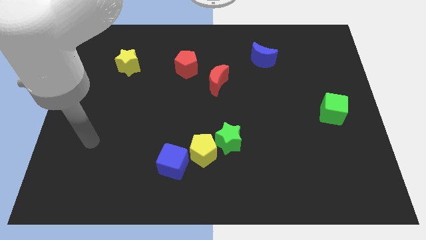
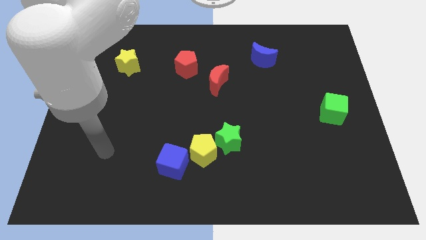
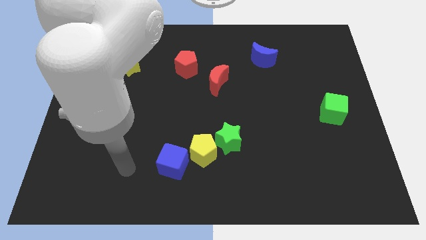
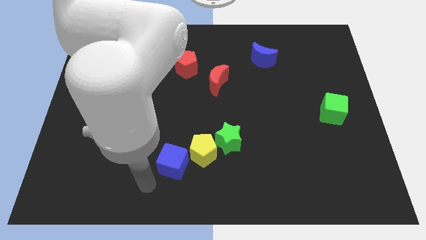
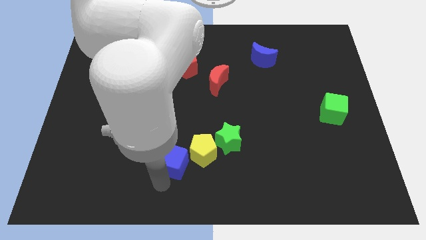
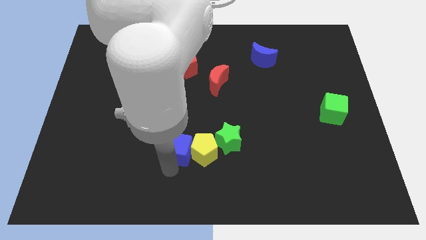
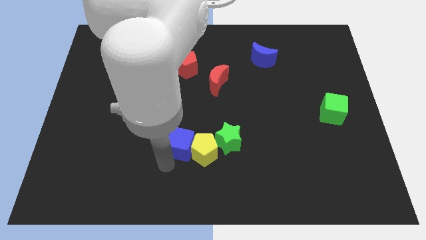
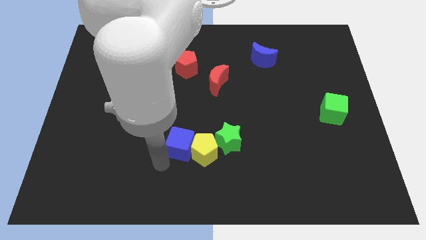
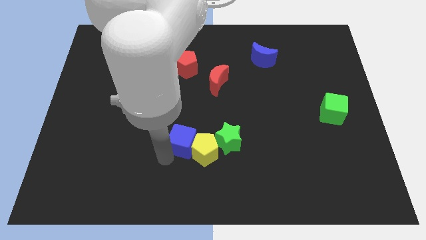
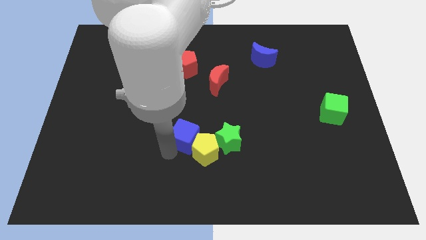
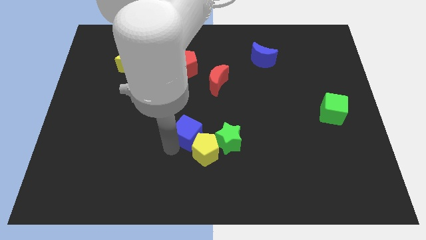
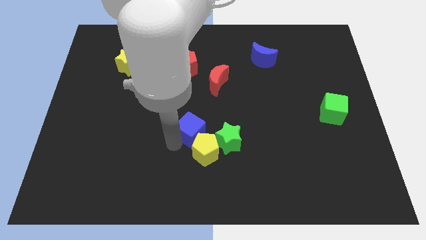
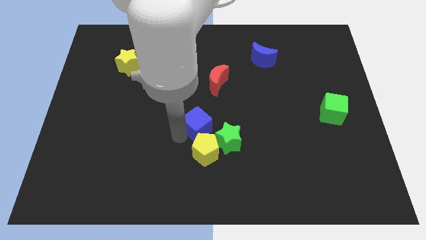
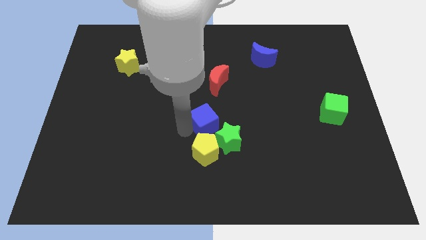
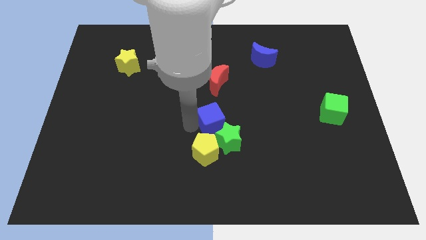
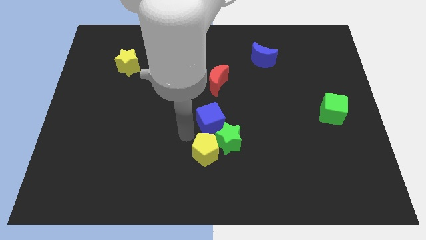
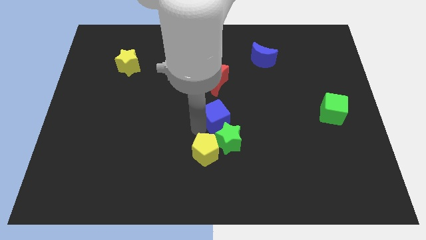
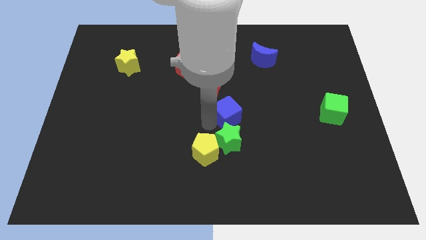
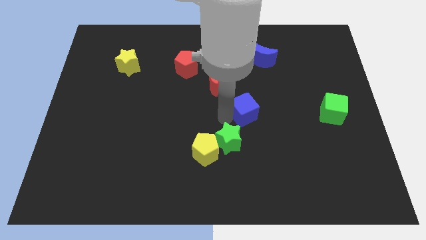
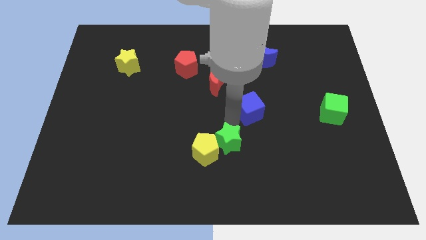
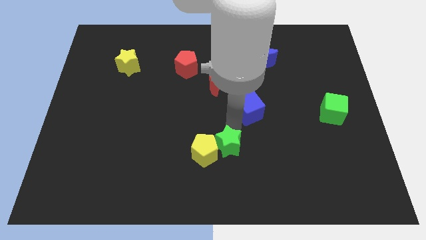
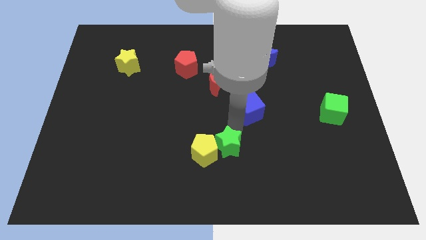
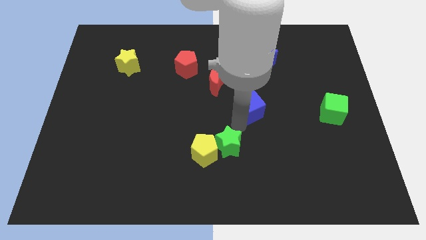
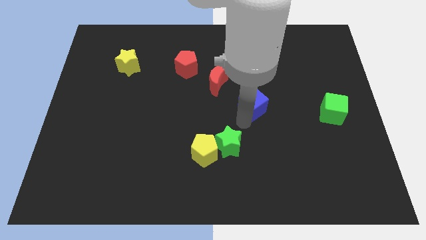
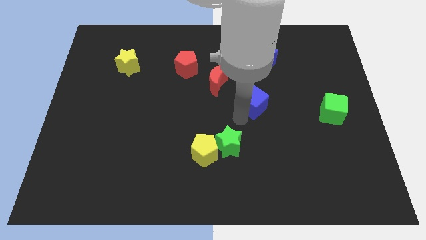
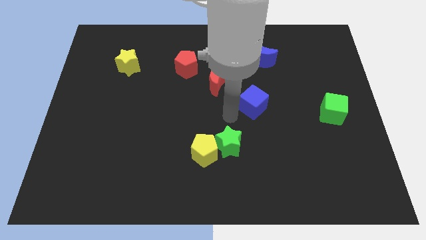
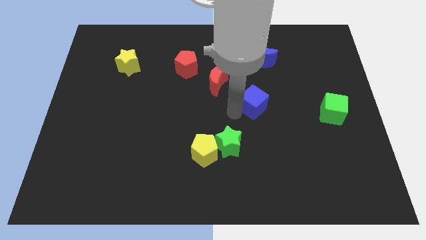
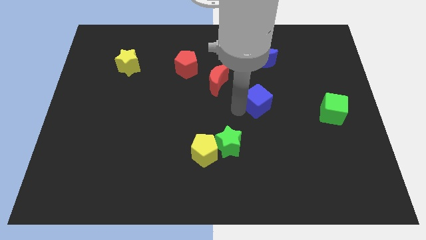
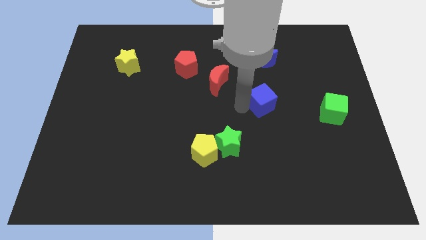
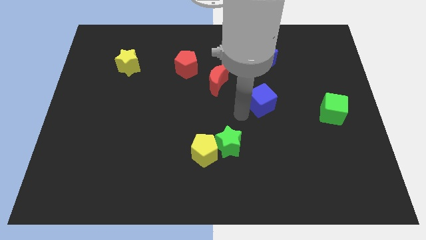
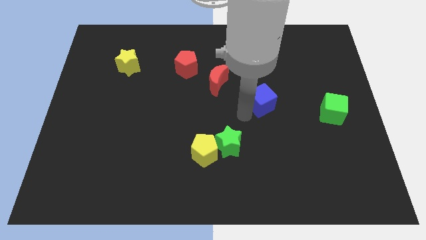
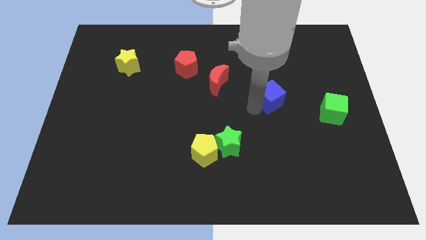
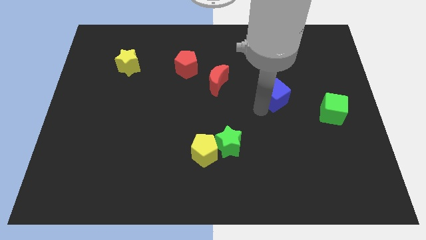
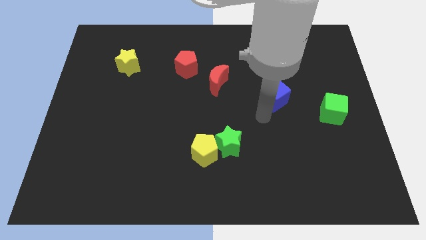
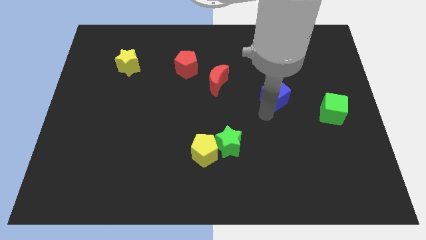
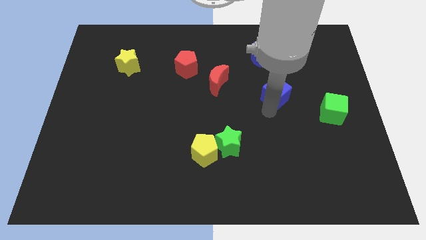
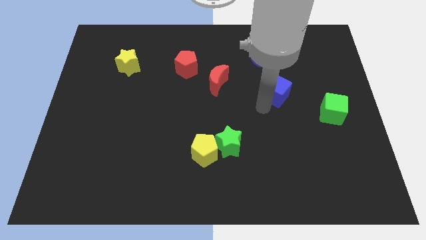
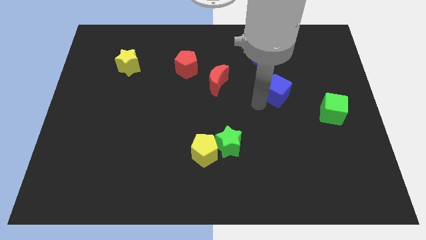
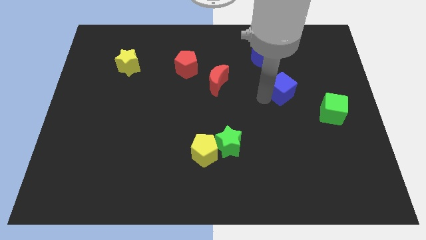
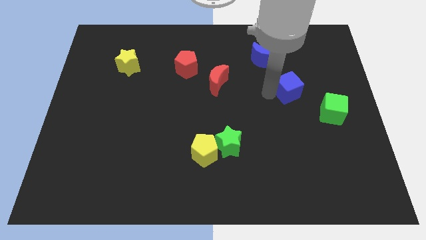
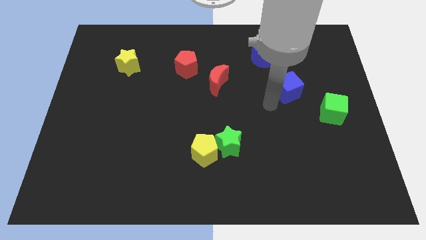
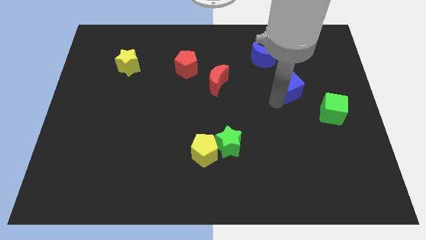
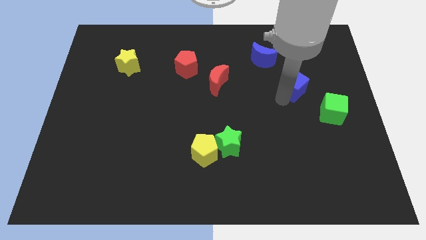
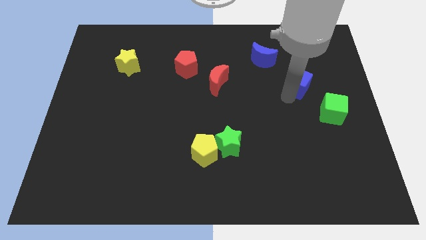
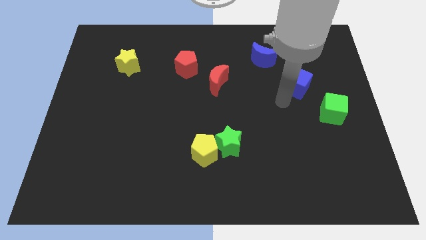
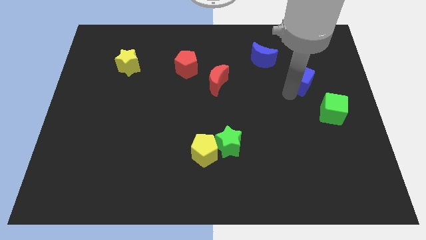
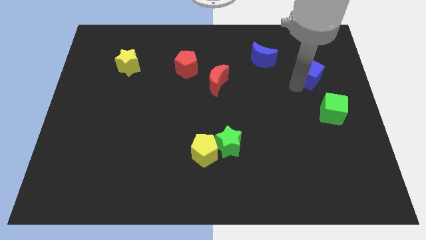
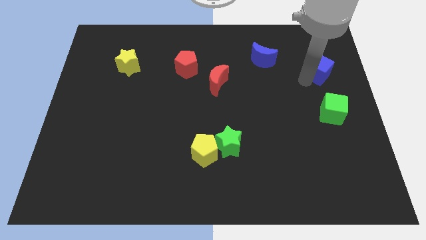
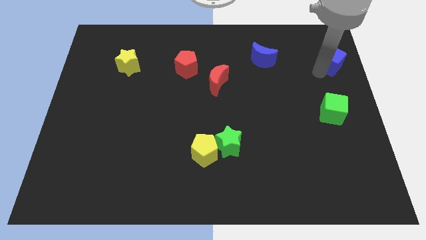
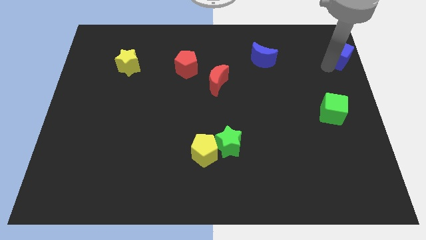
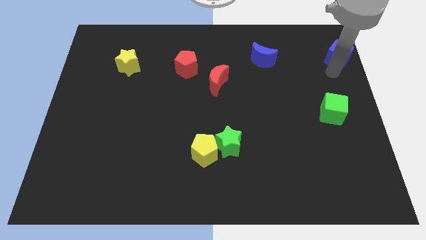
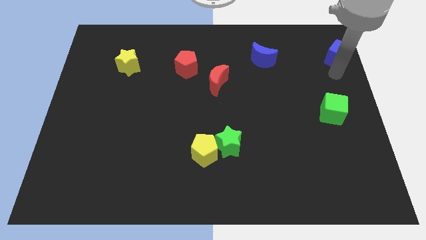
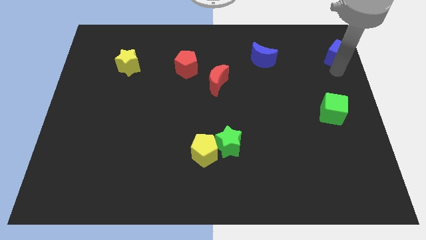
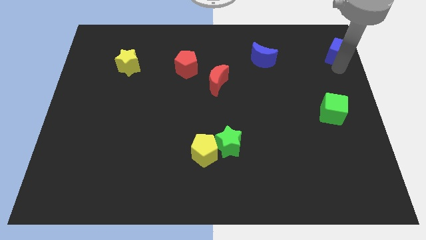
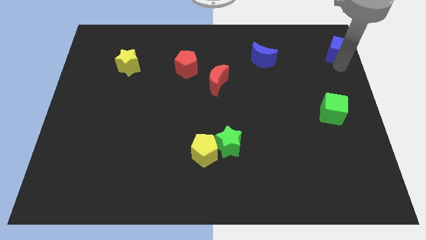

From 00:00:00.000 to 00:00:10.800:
put the blue cube to the upper right corner
